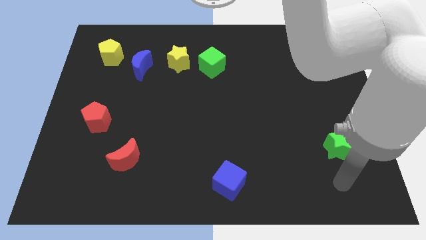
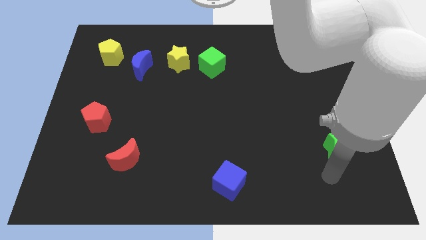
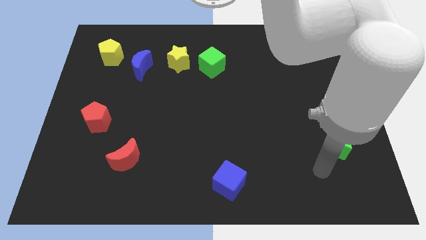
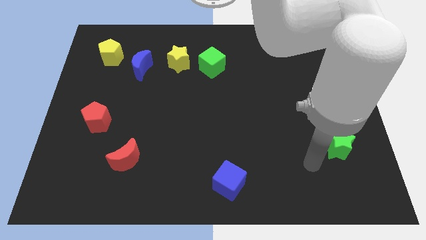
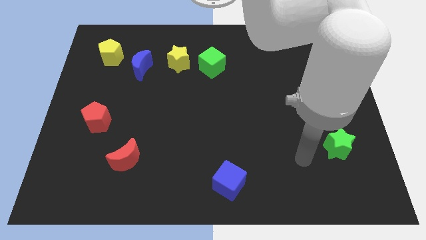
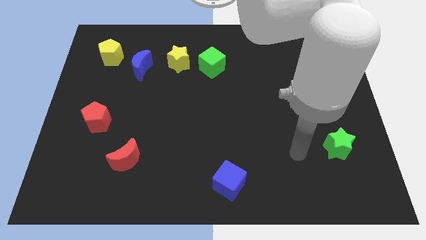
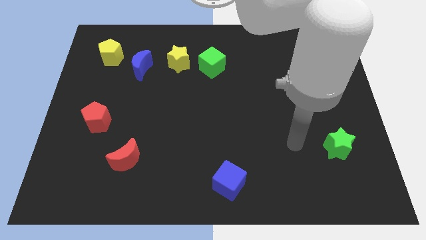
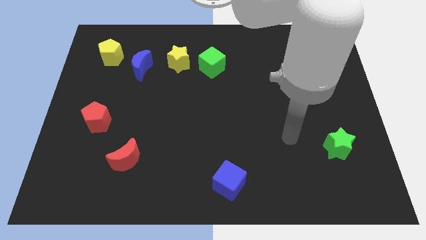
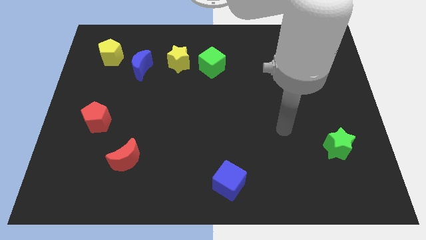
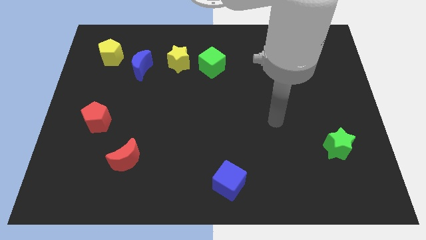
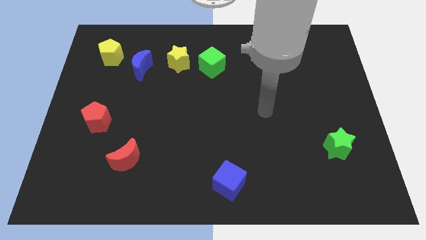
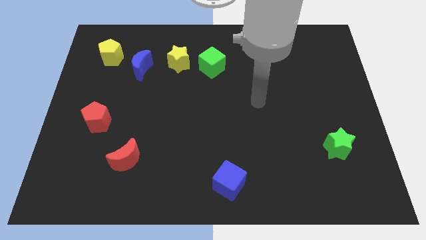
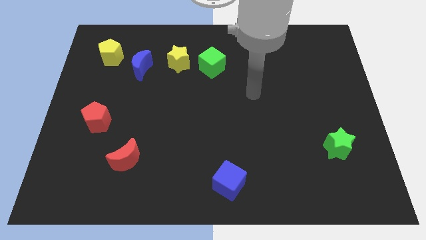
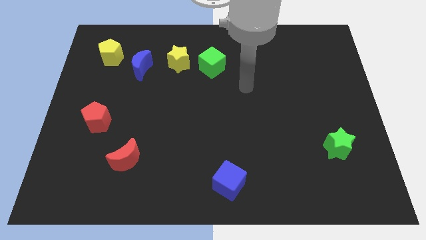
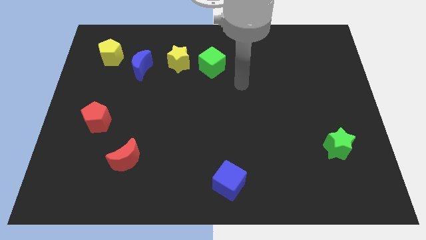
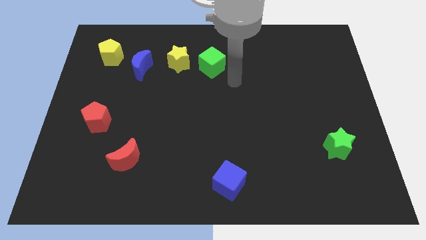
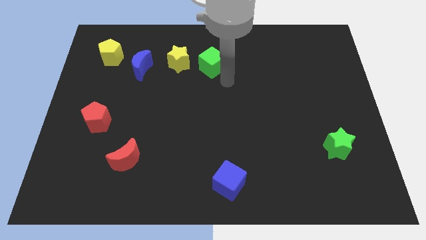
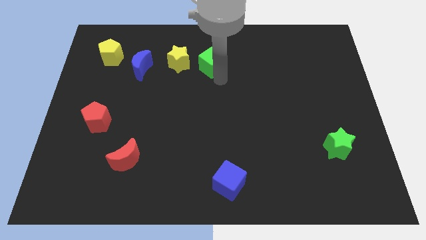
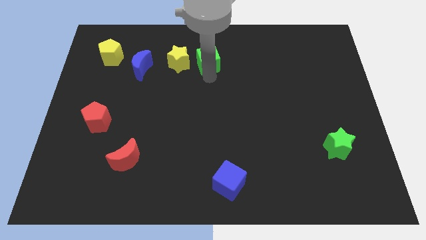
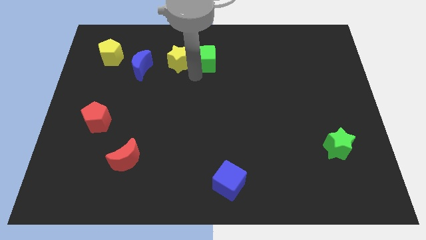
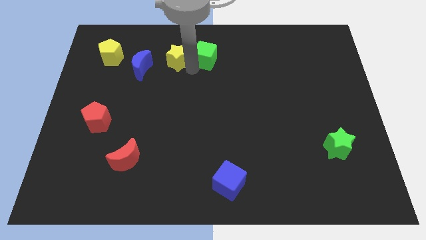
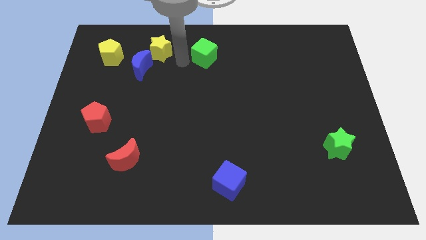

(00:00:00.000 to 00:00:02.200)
pull the green cube apart from the yellow star

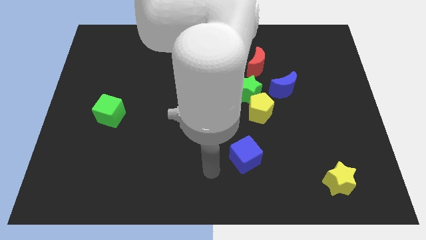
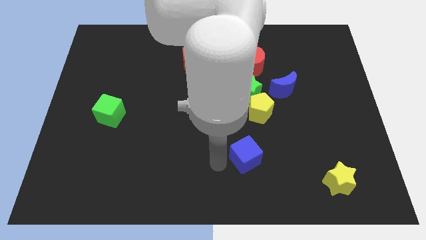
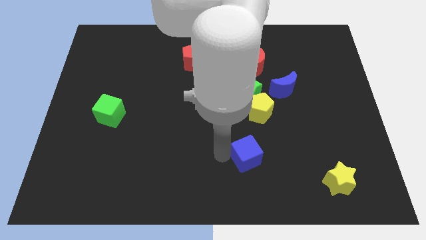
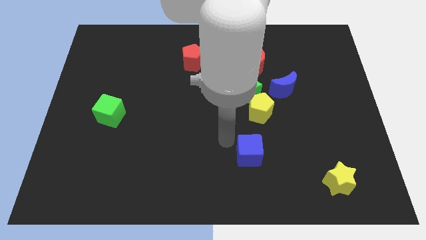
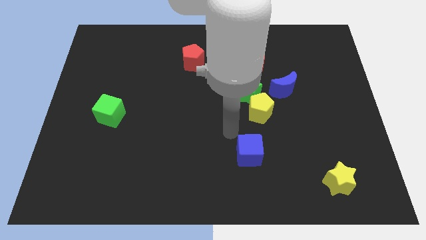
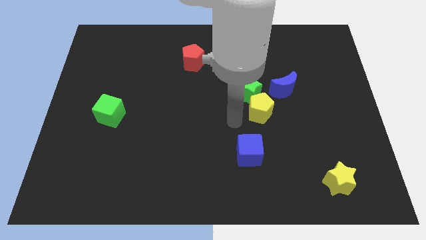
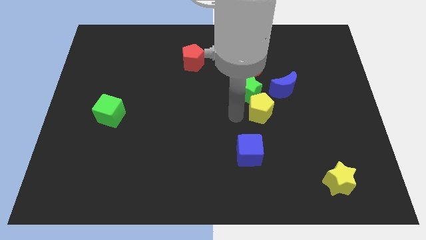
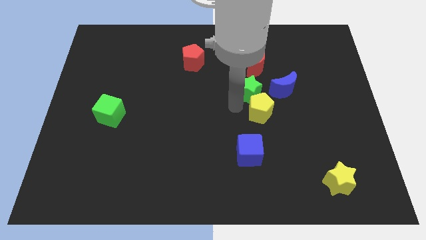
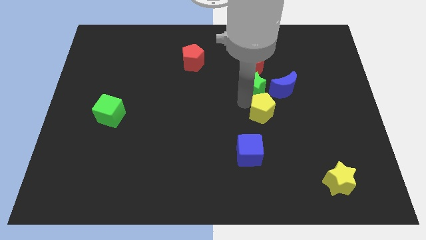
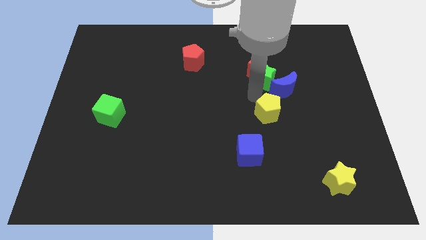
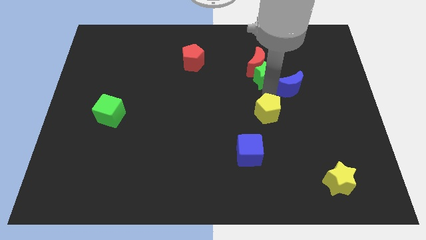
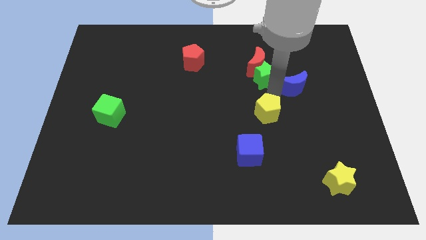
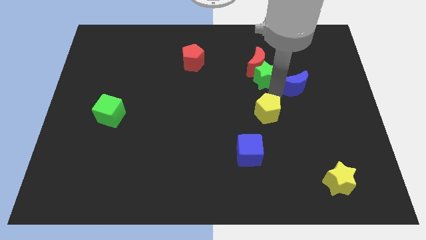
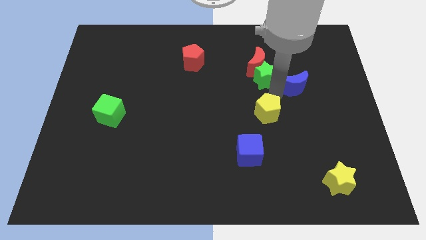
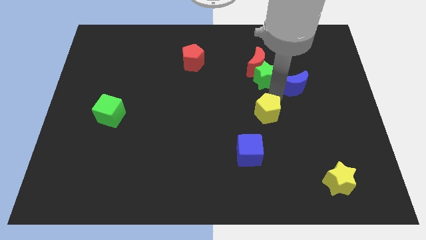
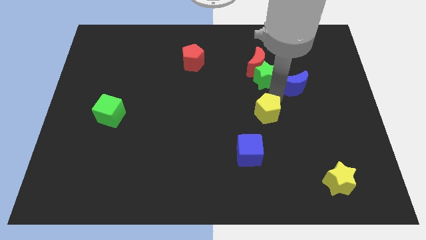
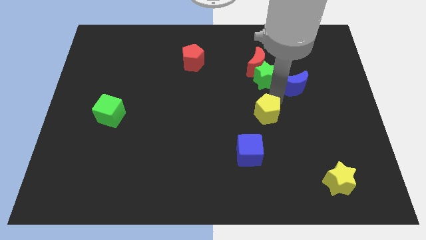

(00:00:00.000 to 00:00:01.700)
move the yellow pentagon away from the green star and blue moon

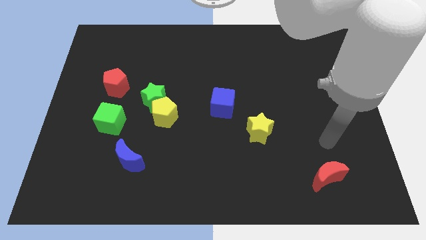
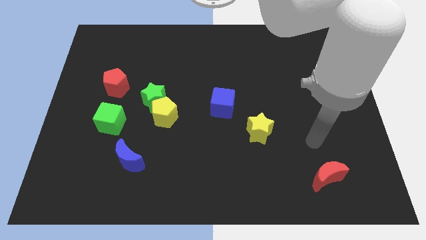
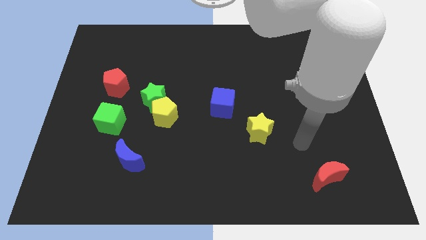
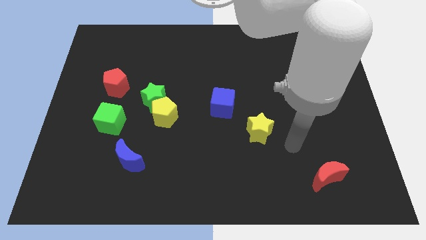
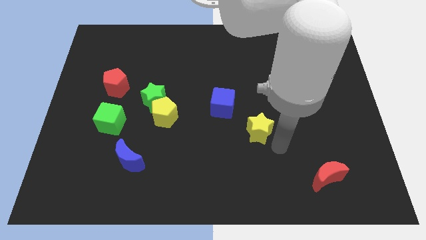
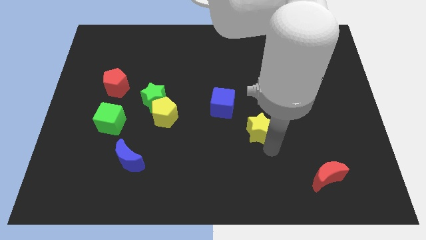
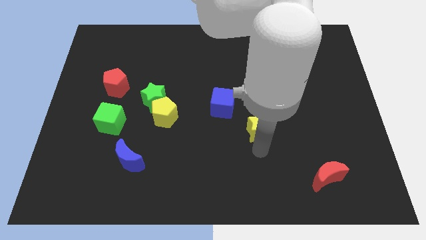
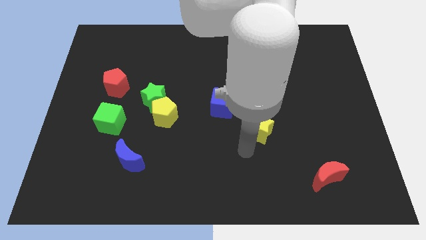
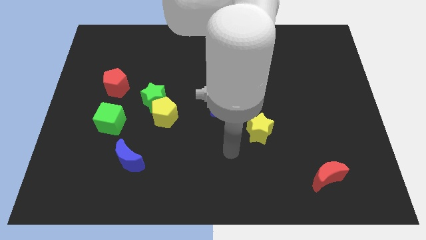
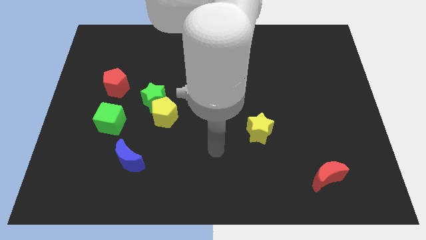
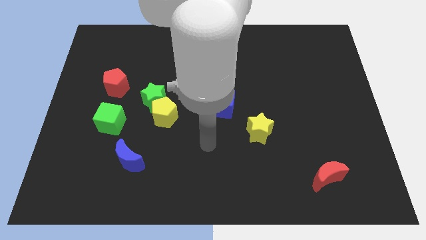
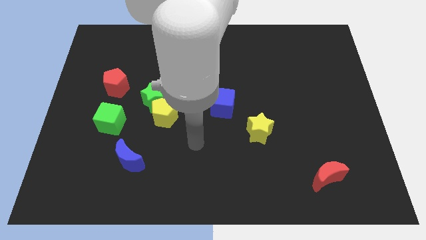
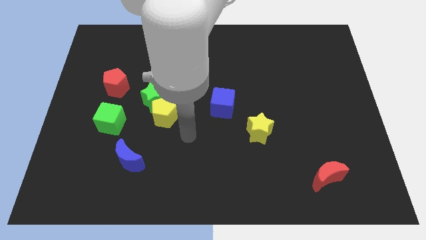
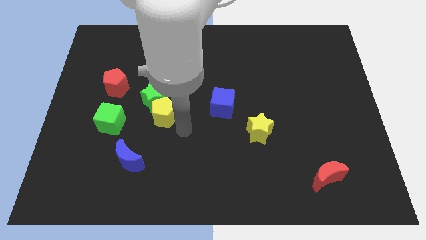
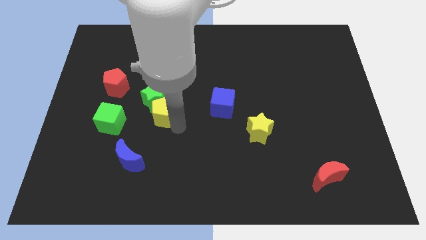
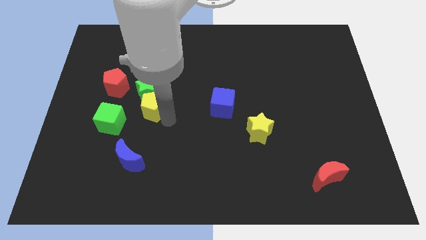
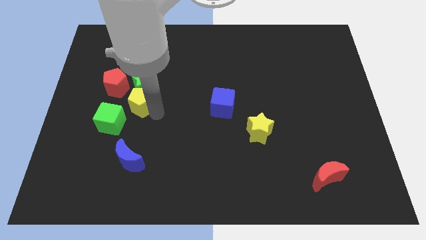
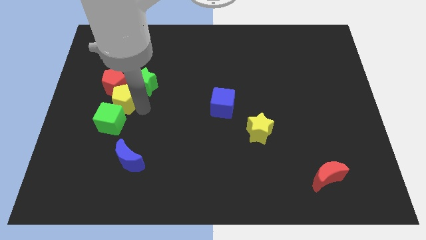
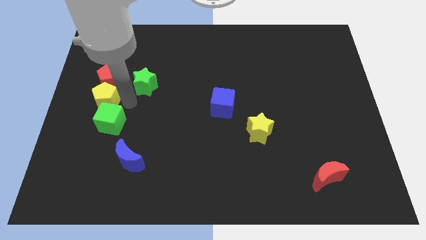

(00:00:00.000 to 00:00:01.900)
separate the green star from the yellow pentagon

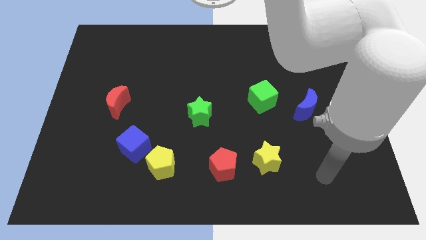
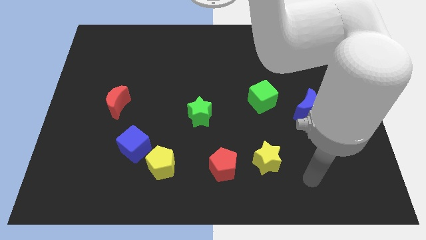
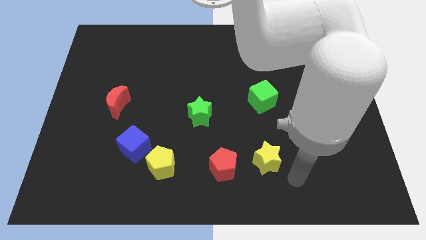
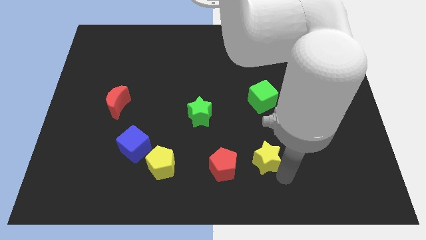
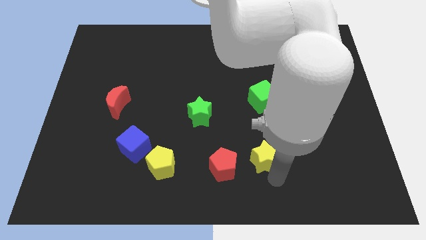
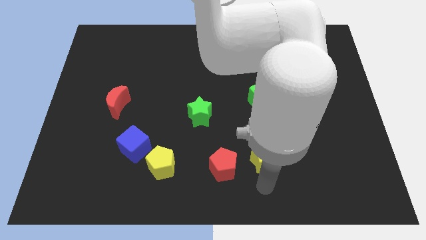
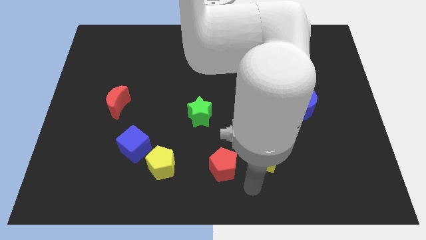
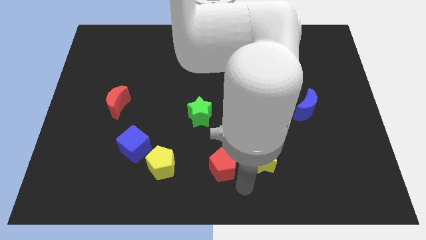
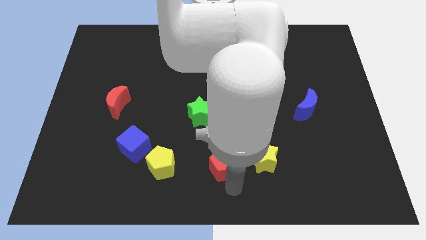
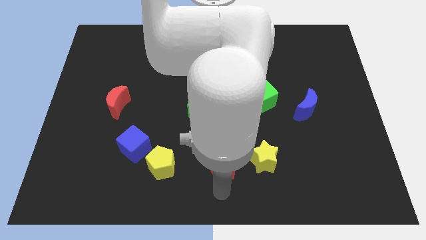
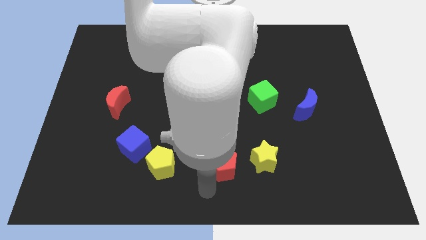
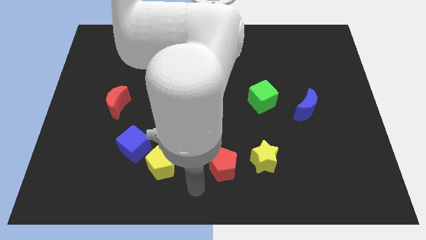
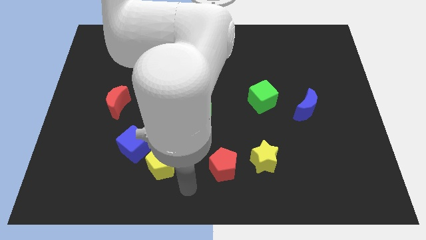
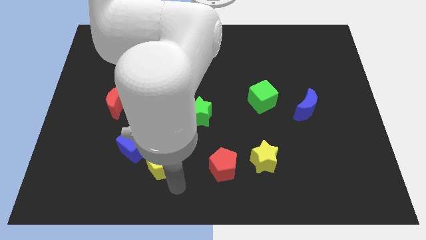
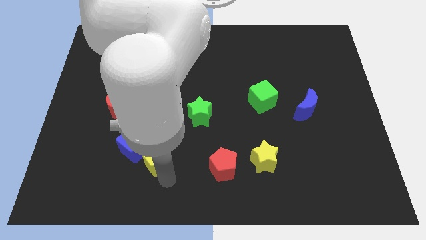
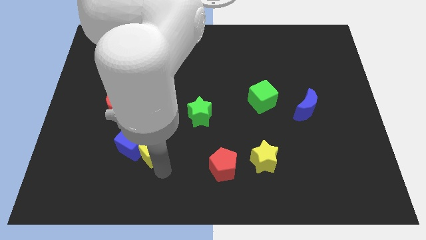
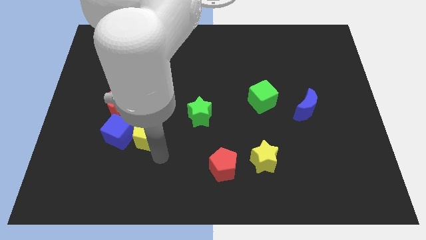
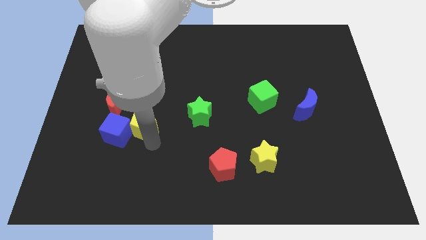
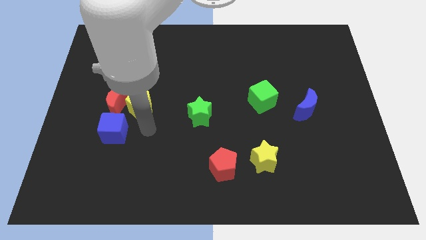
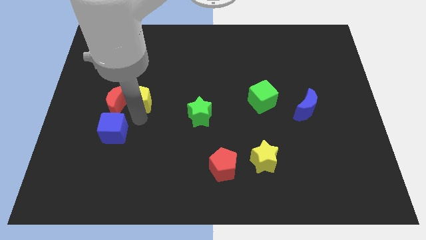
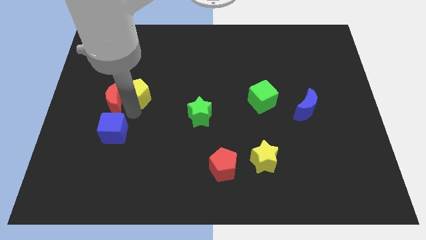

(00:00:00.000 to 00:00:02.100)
separate the blue cube from the yellow pentagon

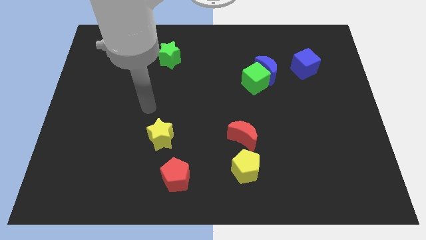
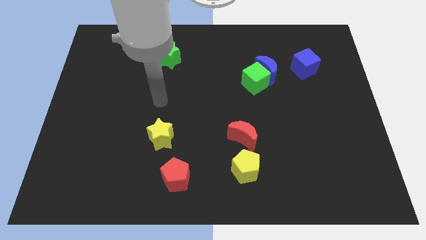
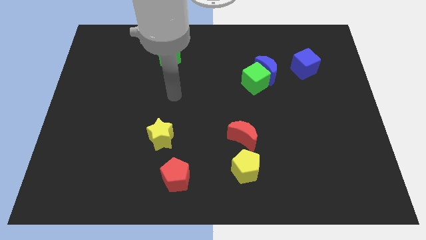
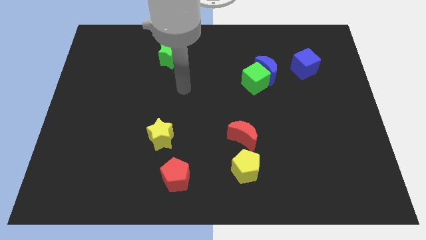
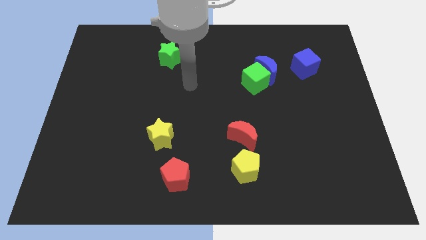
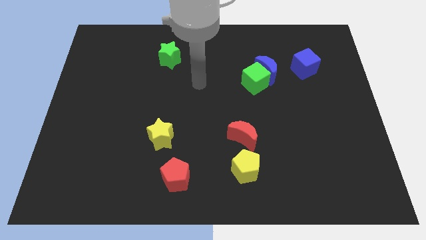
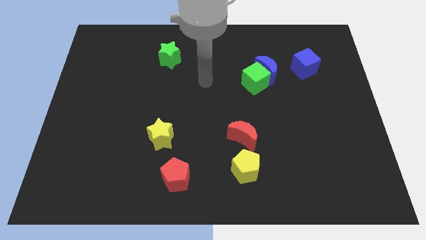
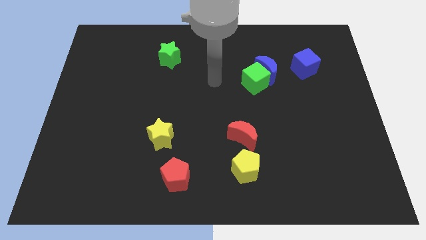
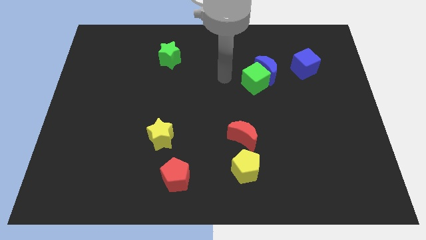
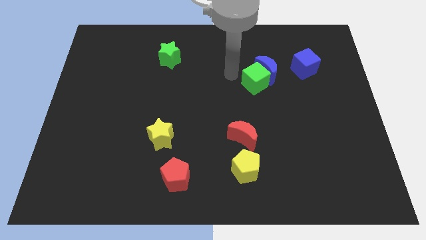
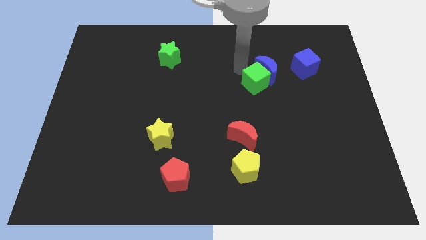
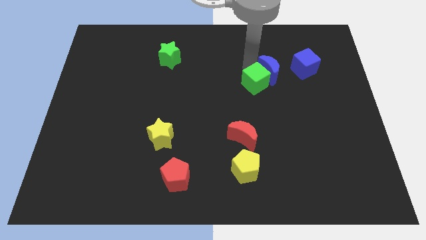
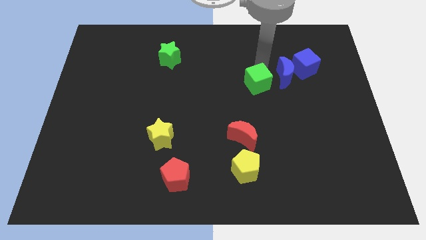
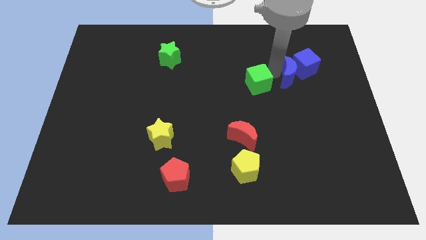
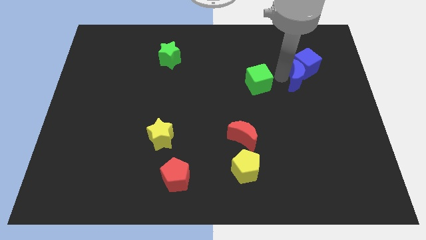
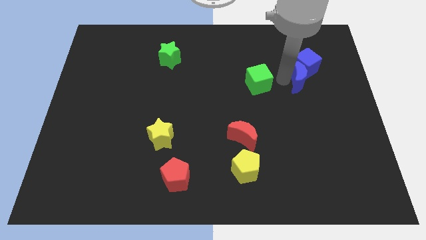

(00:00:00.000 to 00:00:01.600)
separate the green cube from the blue moon
